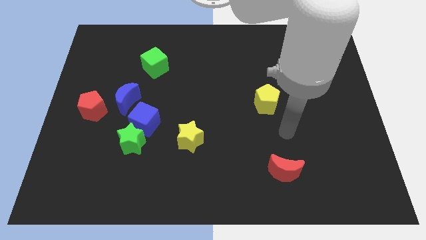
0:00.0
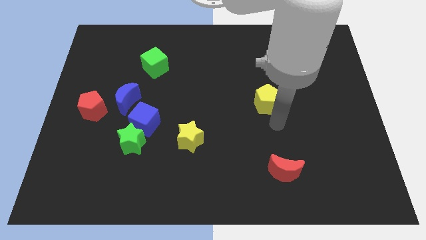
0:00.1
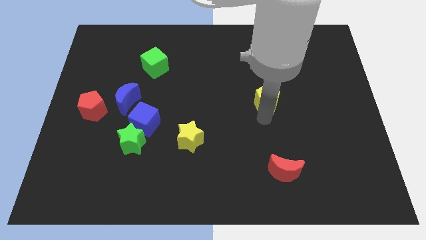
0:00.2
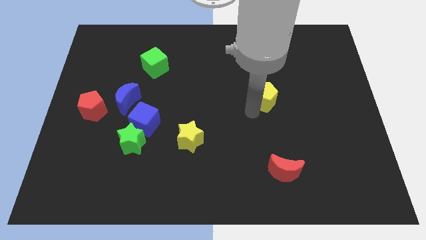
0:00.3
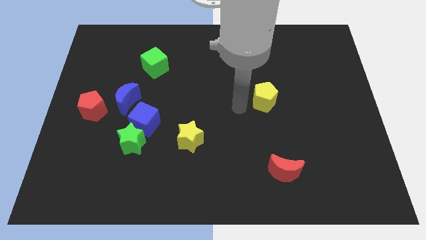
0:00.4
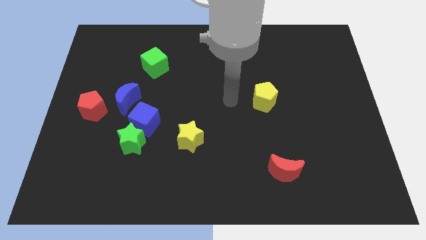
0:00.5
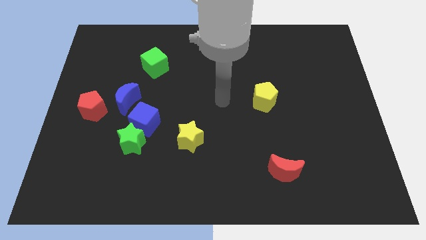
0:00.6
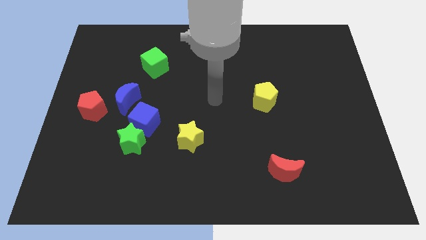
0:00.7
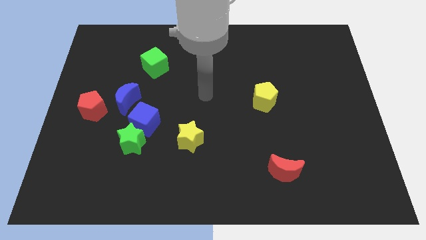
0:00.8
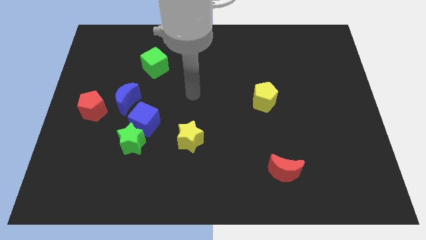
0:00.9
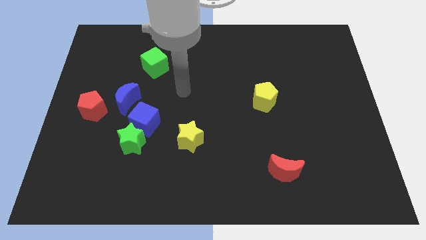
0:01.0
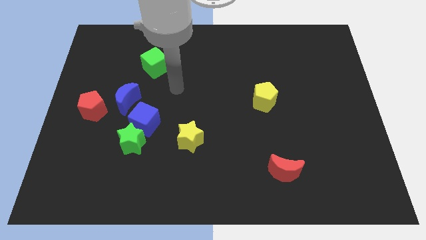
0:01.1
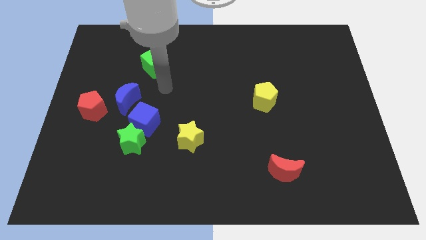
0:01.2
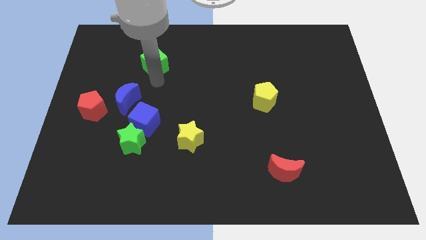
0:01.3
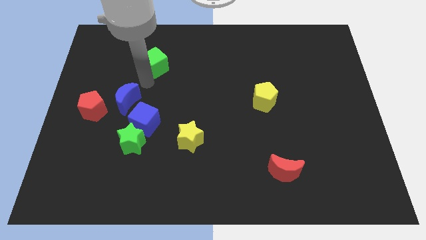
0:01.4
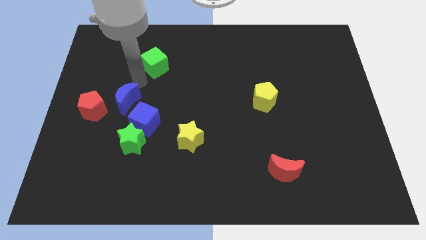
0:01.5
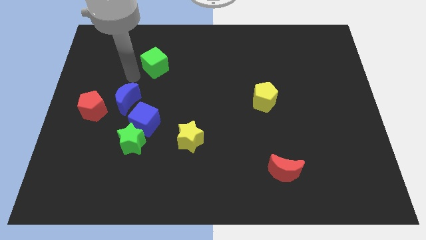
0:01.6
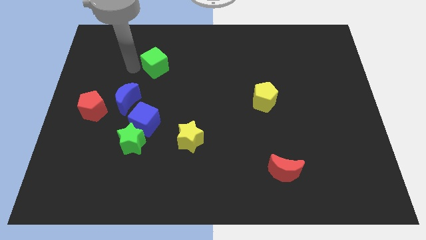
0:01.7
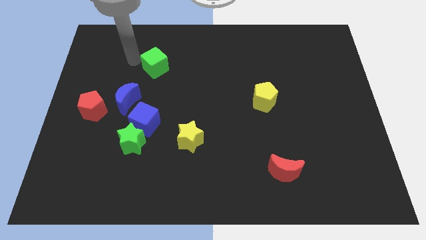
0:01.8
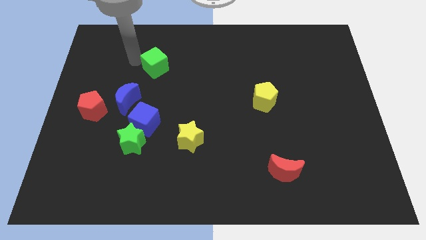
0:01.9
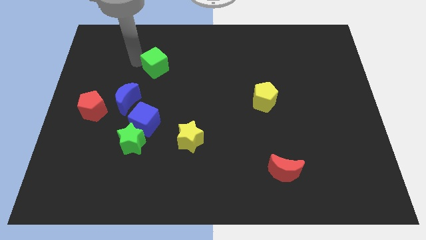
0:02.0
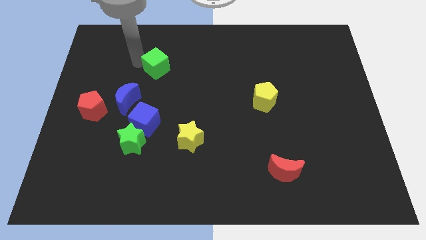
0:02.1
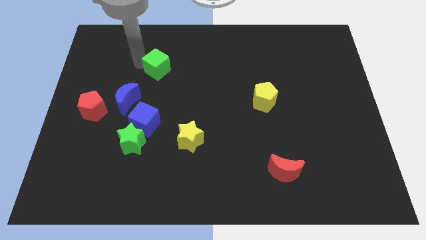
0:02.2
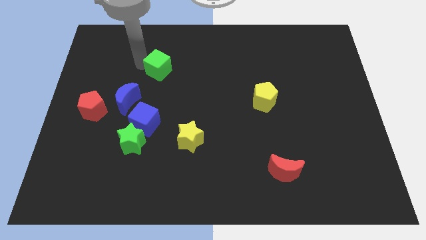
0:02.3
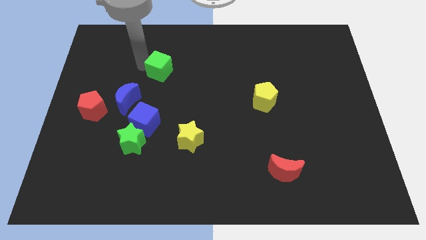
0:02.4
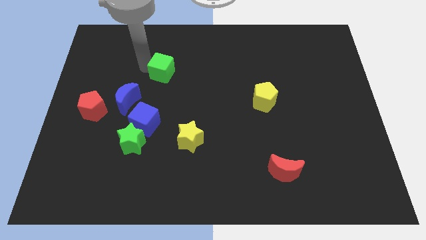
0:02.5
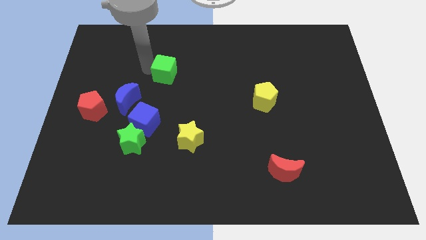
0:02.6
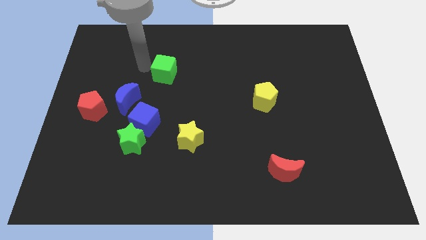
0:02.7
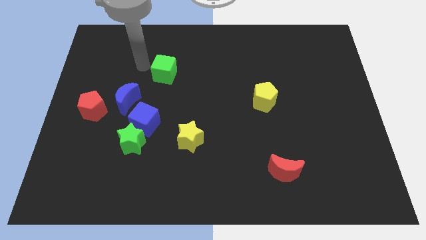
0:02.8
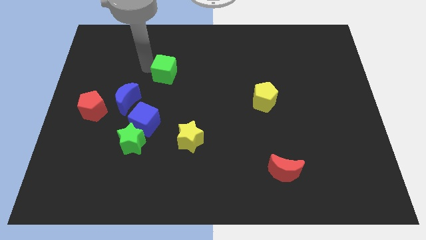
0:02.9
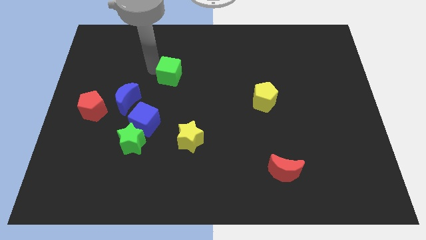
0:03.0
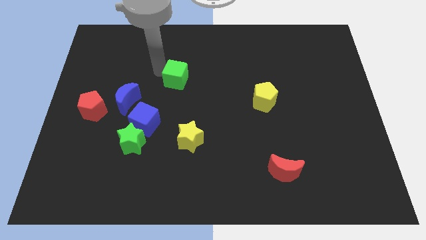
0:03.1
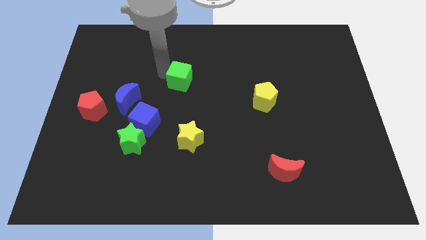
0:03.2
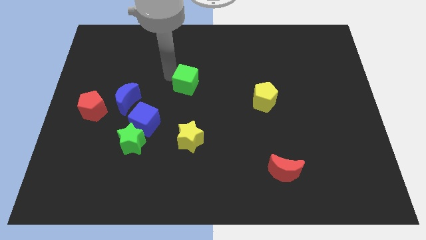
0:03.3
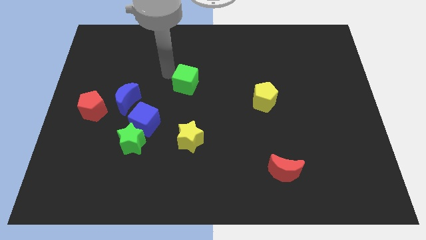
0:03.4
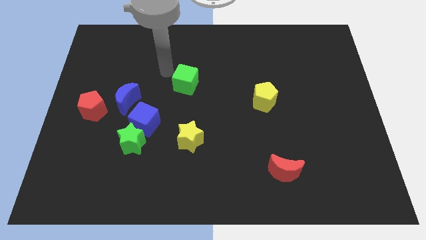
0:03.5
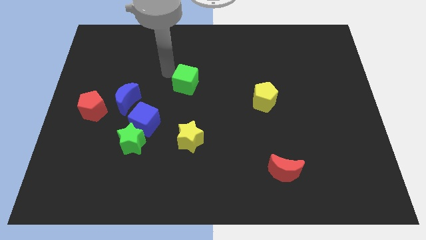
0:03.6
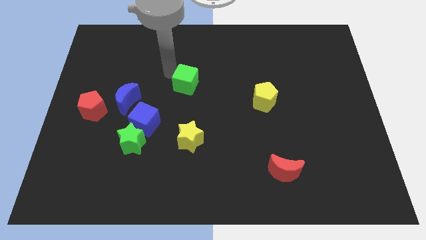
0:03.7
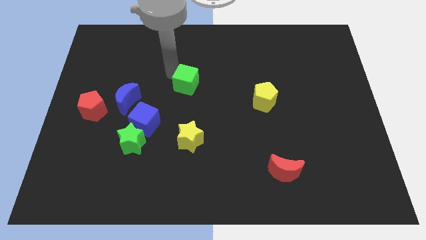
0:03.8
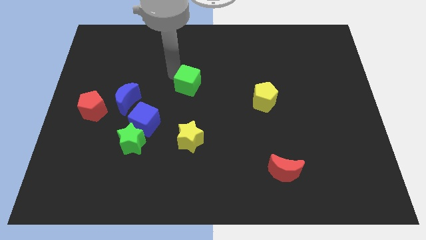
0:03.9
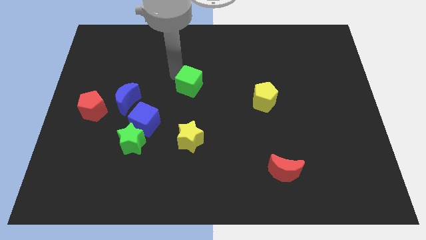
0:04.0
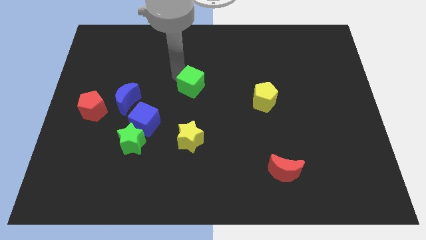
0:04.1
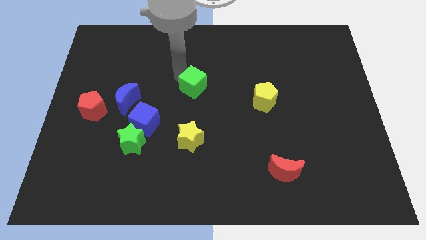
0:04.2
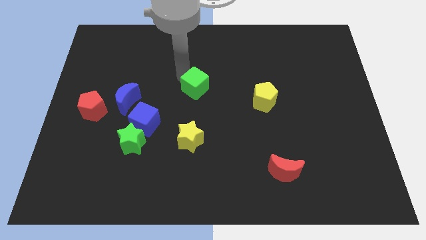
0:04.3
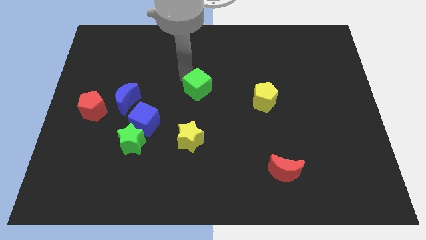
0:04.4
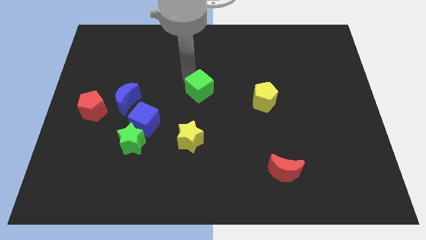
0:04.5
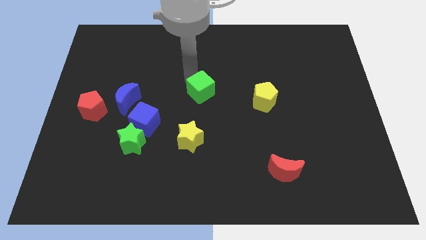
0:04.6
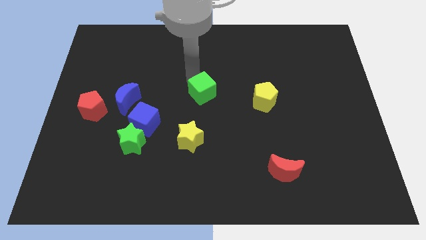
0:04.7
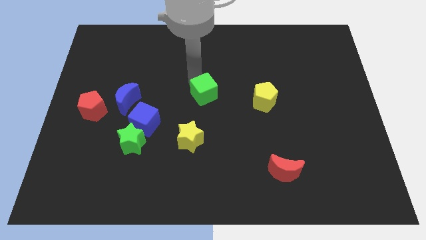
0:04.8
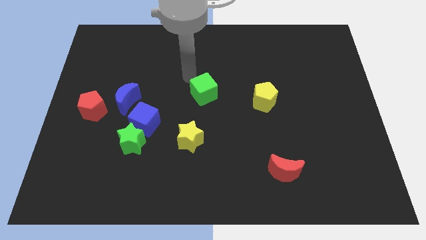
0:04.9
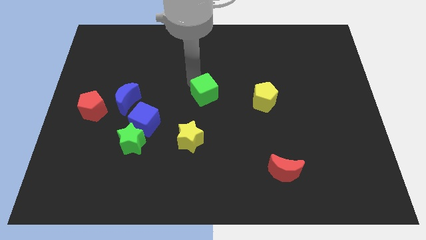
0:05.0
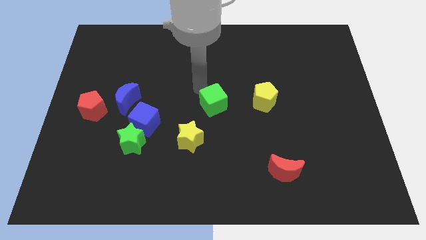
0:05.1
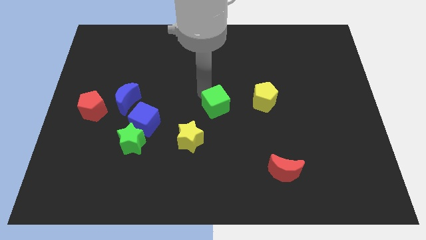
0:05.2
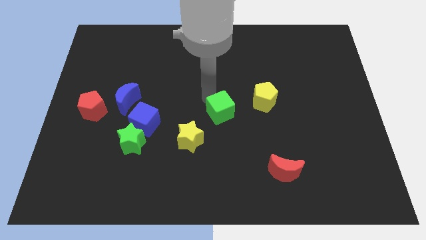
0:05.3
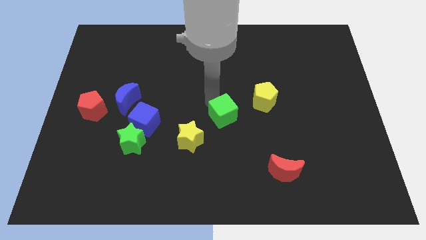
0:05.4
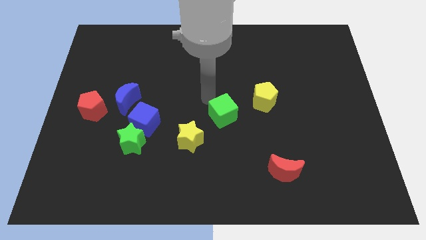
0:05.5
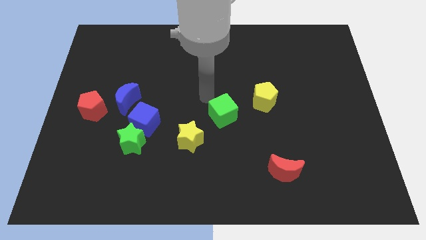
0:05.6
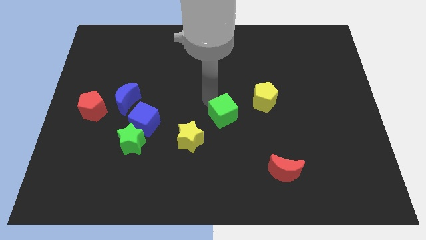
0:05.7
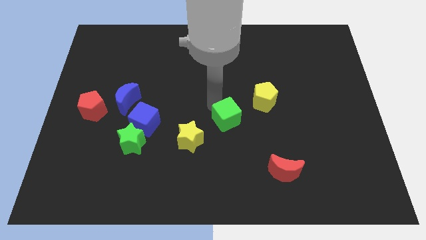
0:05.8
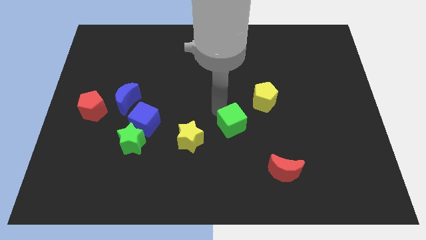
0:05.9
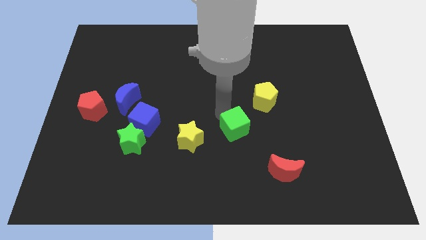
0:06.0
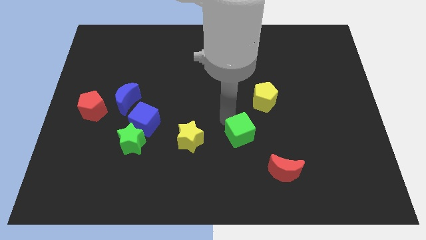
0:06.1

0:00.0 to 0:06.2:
push the green cube diagonally up and to the left of the red moon

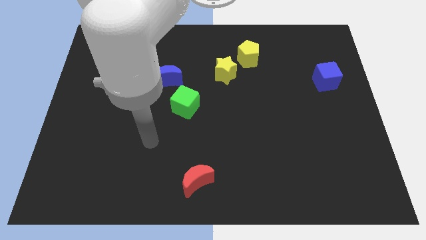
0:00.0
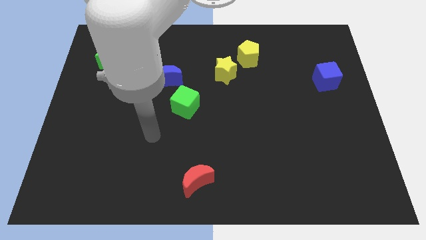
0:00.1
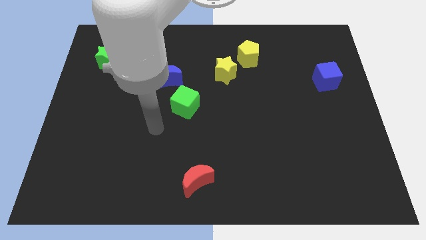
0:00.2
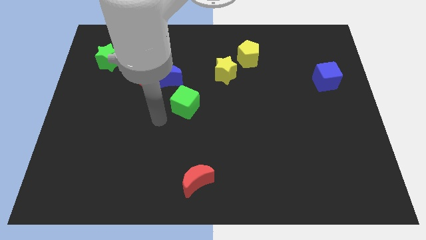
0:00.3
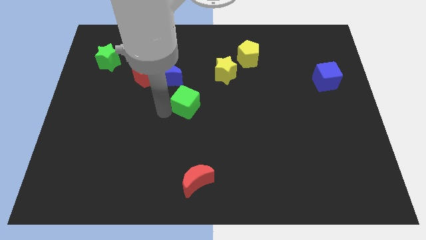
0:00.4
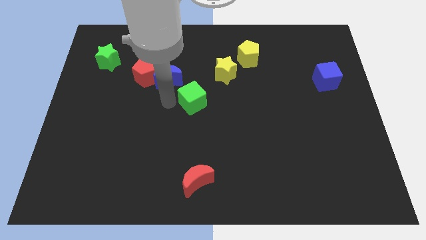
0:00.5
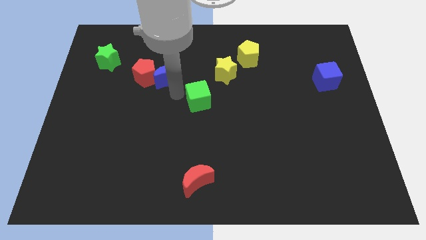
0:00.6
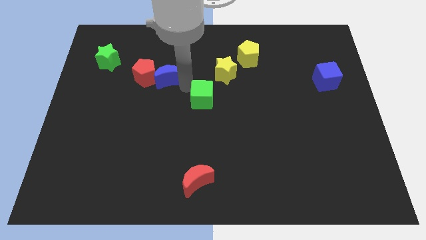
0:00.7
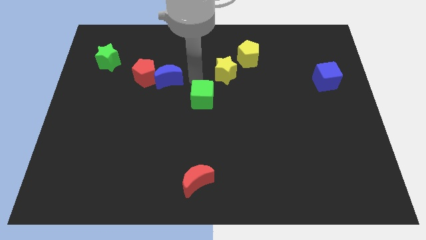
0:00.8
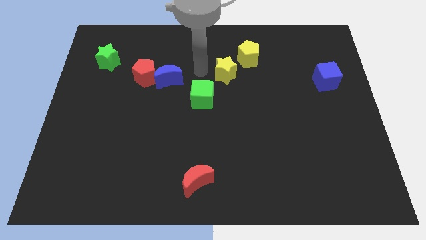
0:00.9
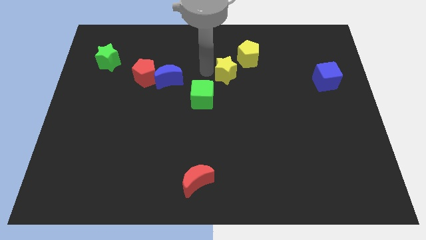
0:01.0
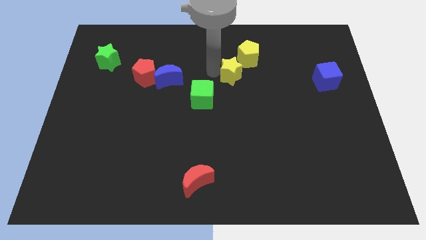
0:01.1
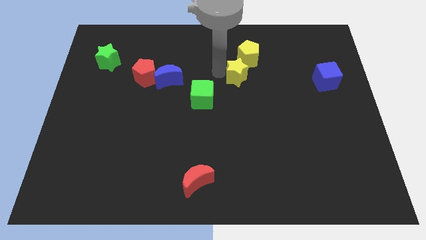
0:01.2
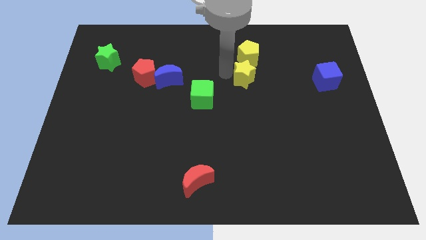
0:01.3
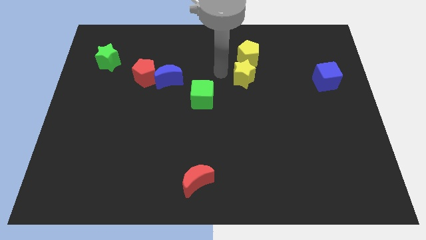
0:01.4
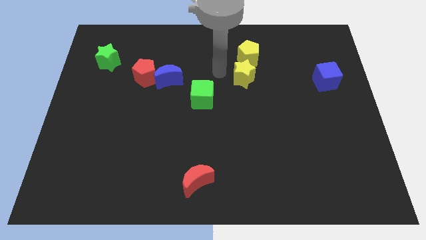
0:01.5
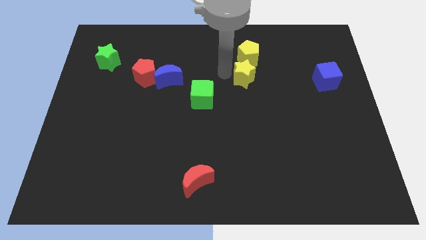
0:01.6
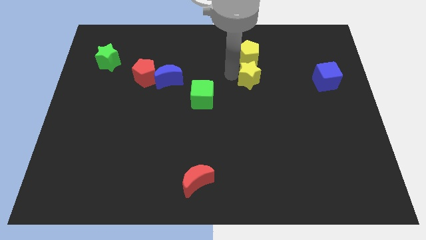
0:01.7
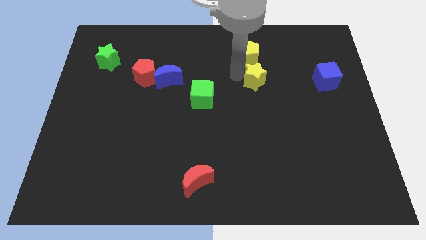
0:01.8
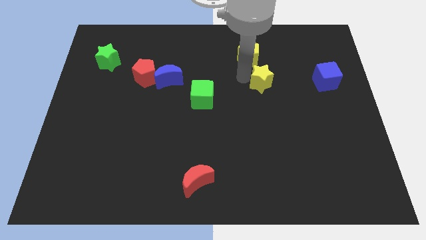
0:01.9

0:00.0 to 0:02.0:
move the yellow star to the left of the blue cube
